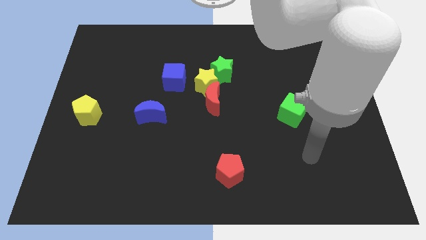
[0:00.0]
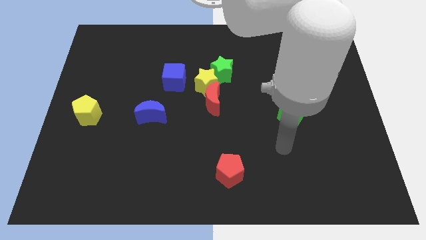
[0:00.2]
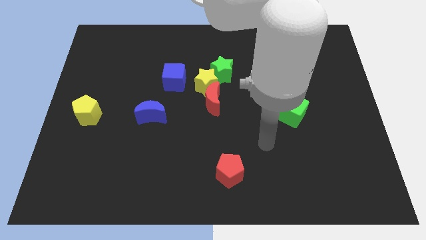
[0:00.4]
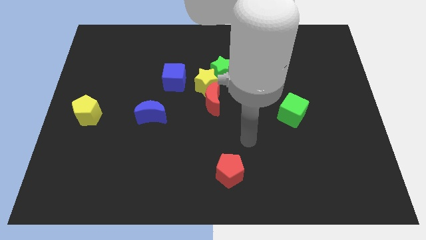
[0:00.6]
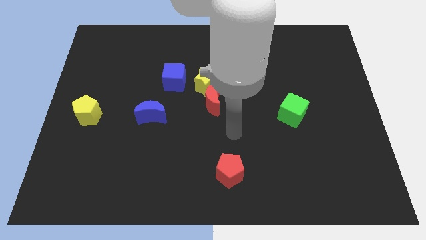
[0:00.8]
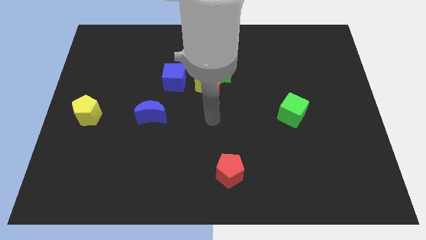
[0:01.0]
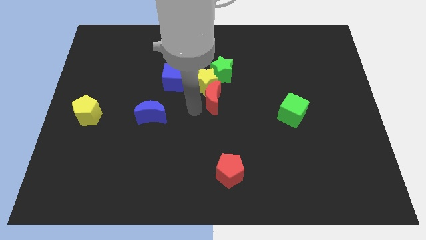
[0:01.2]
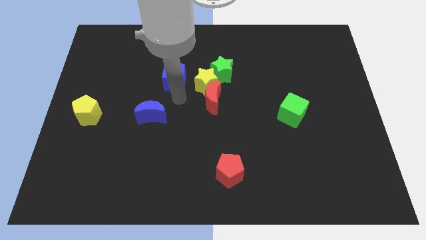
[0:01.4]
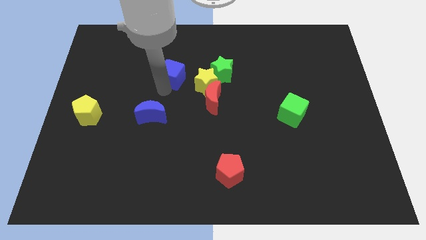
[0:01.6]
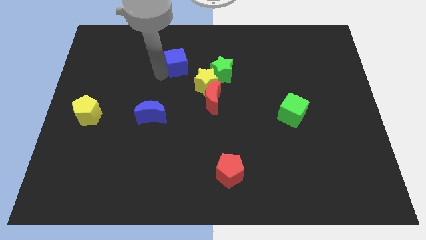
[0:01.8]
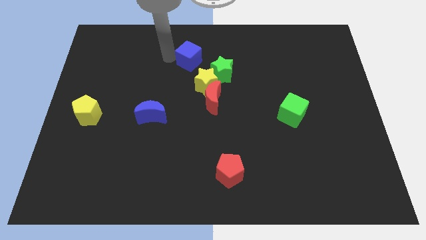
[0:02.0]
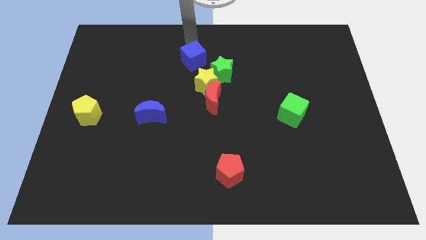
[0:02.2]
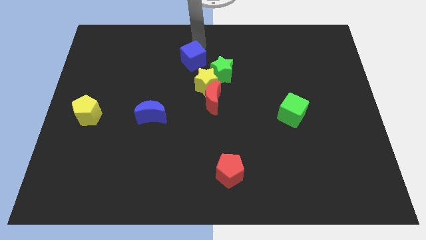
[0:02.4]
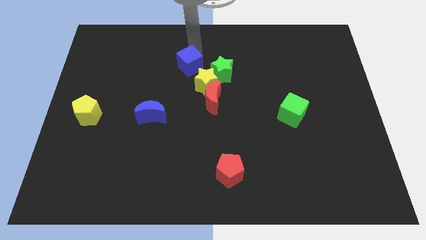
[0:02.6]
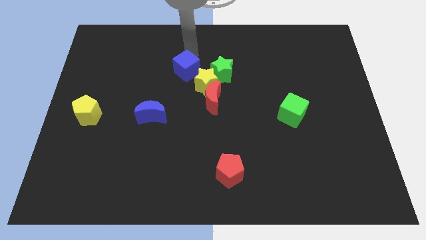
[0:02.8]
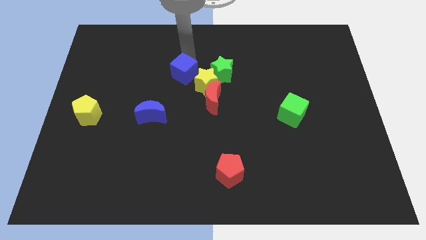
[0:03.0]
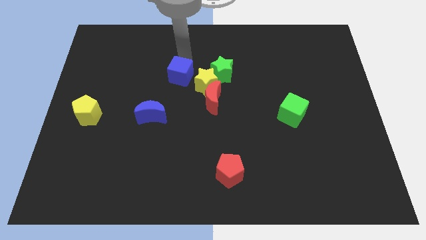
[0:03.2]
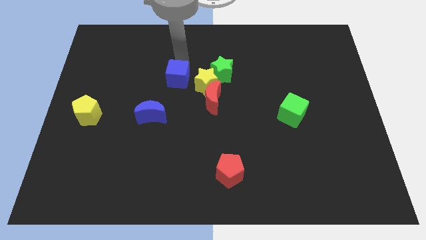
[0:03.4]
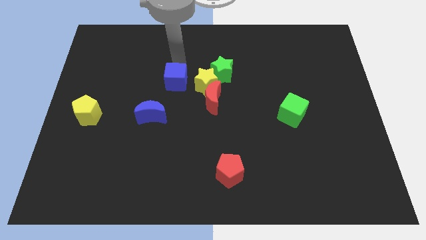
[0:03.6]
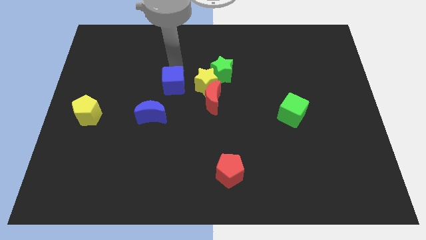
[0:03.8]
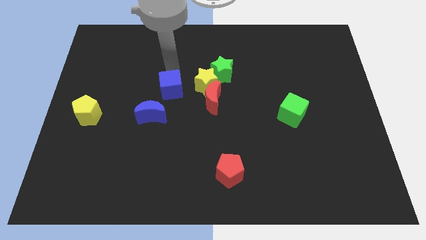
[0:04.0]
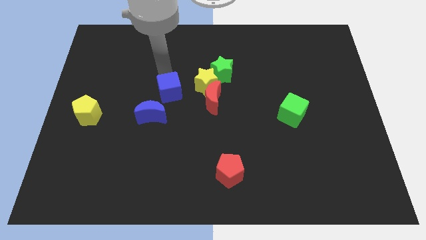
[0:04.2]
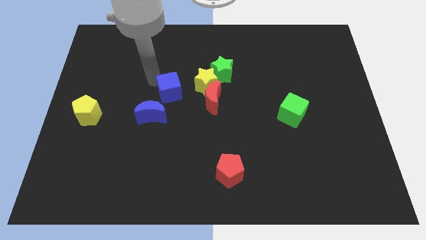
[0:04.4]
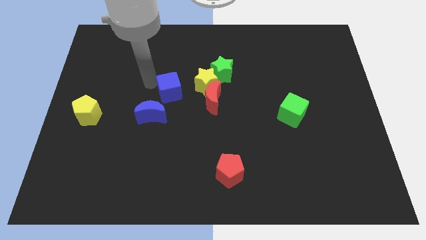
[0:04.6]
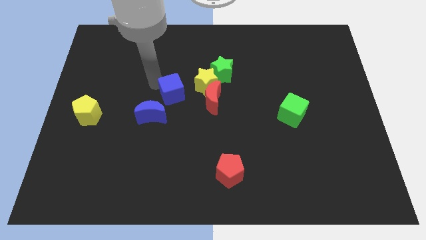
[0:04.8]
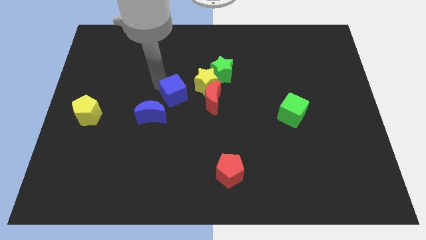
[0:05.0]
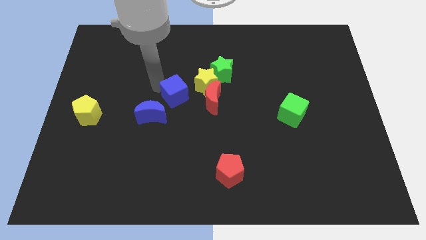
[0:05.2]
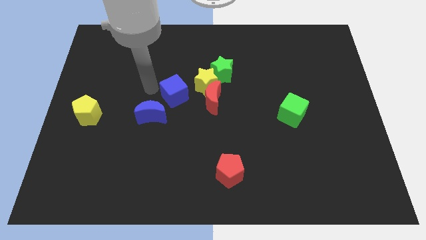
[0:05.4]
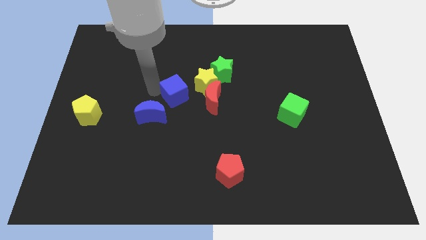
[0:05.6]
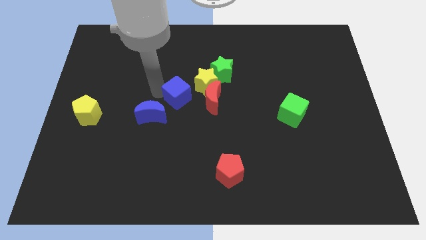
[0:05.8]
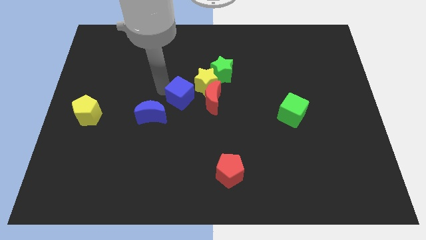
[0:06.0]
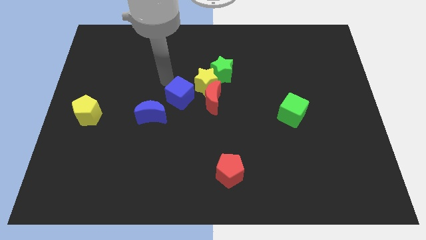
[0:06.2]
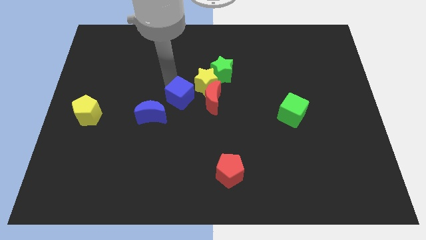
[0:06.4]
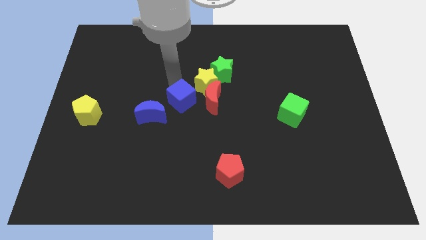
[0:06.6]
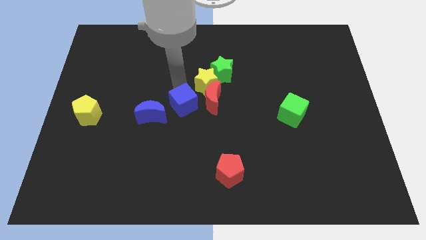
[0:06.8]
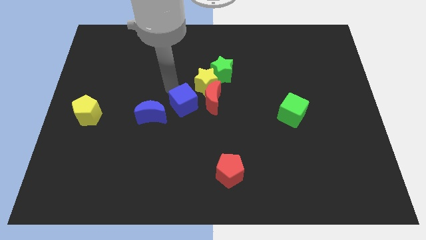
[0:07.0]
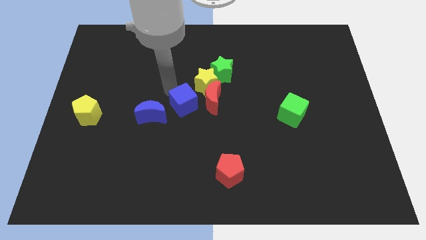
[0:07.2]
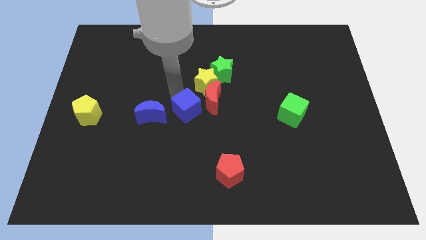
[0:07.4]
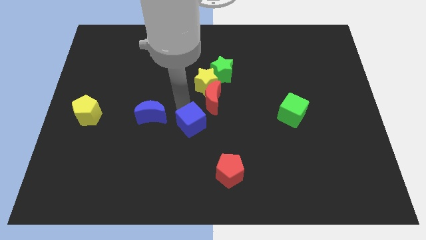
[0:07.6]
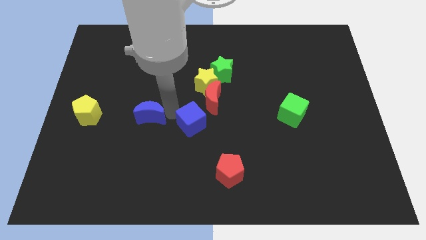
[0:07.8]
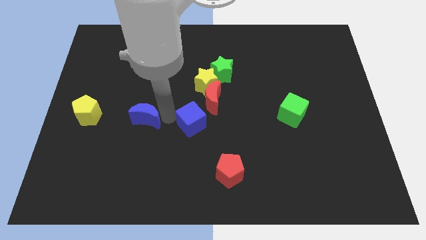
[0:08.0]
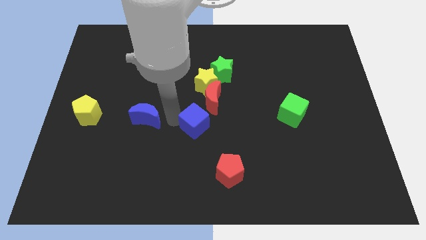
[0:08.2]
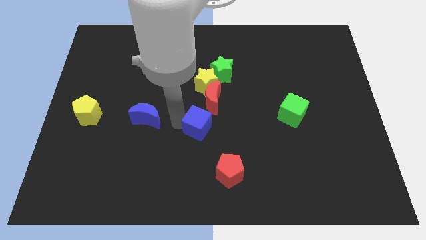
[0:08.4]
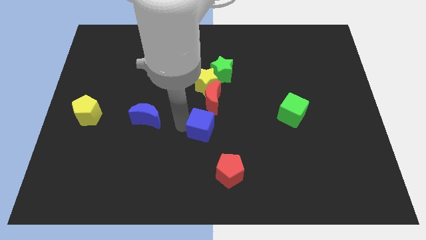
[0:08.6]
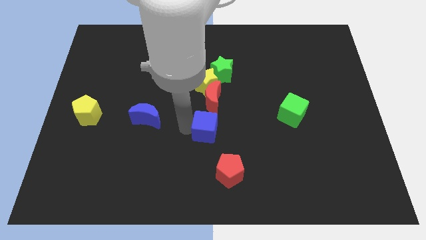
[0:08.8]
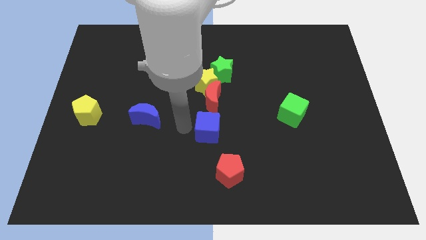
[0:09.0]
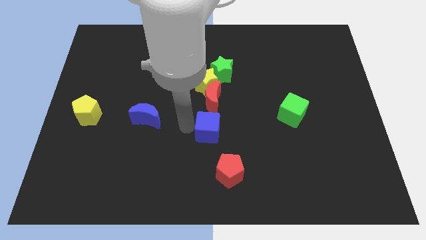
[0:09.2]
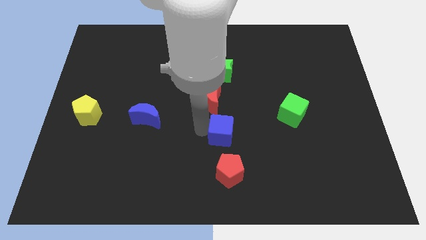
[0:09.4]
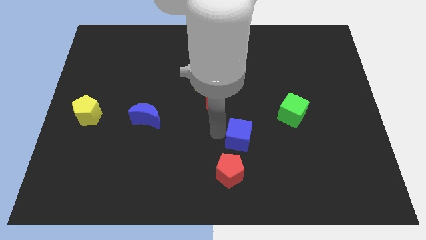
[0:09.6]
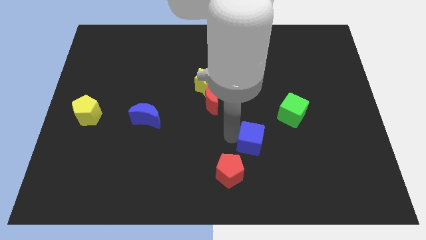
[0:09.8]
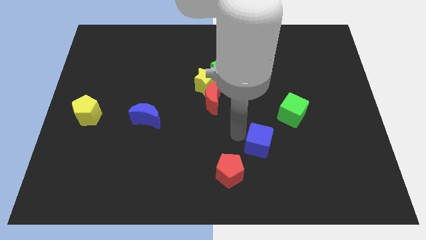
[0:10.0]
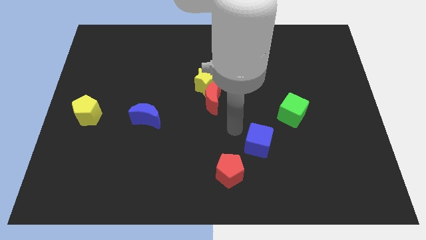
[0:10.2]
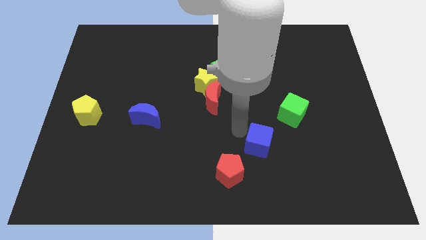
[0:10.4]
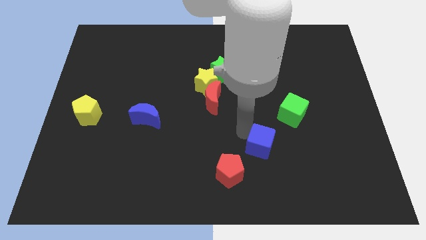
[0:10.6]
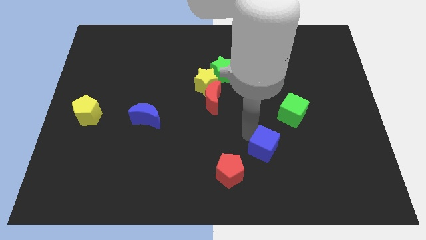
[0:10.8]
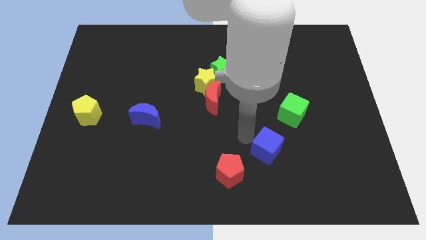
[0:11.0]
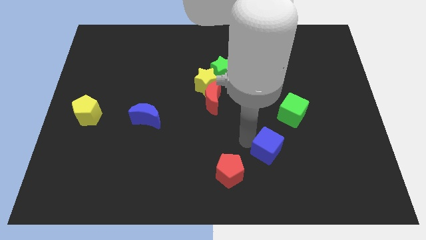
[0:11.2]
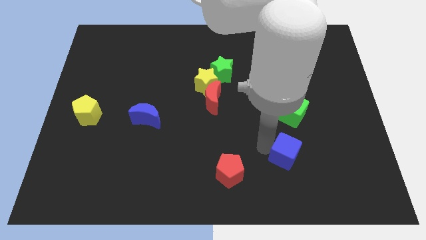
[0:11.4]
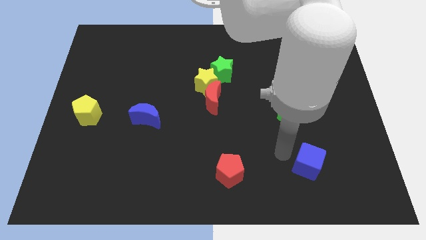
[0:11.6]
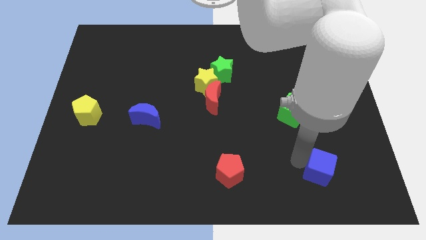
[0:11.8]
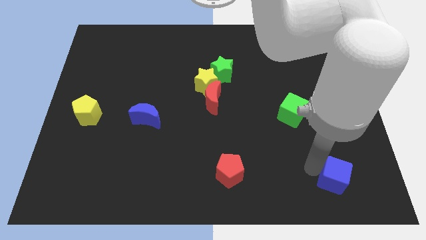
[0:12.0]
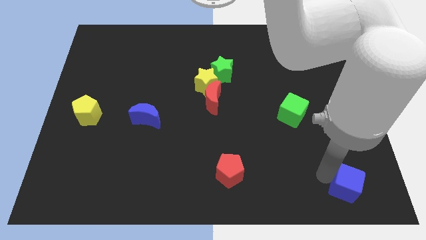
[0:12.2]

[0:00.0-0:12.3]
move the blue cube to the bottom right of the board
